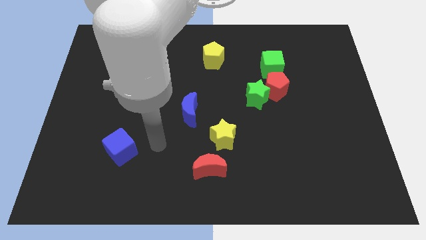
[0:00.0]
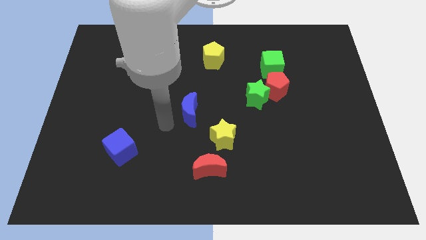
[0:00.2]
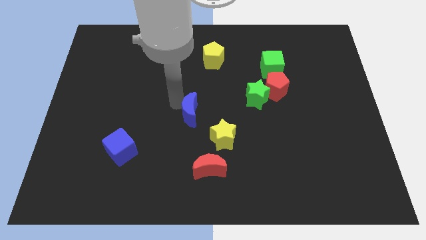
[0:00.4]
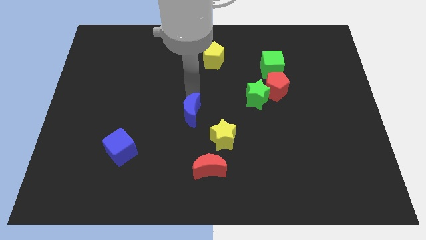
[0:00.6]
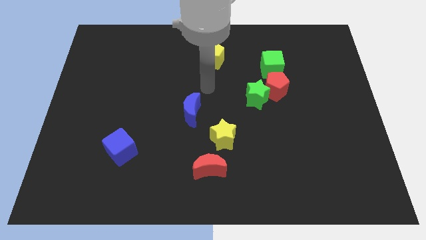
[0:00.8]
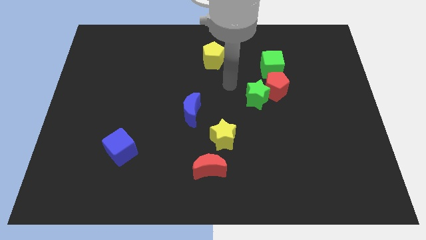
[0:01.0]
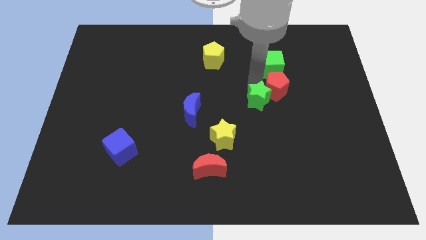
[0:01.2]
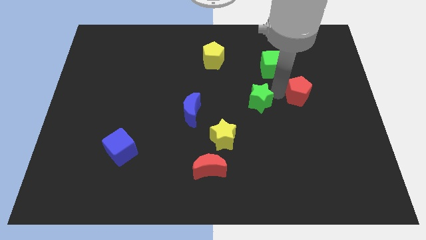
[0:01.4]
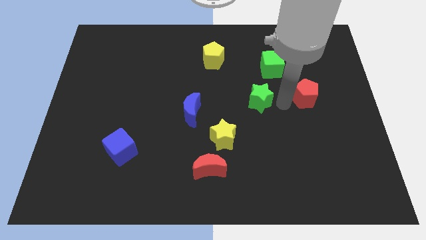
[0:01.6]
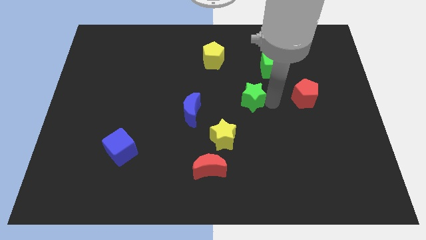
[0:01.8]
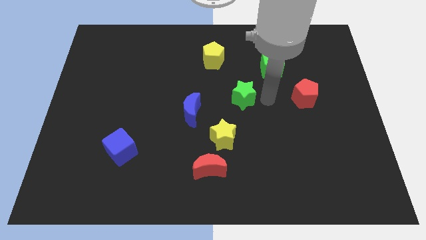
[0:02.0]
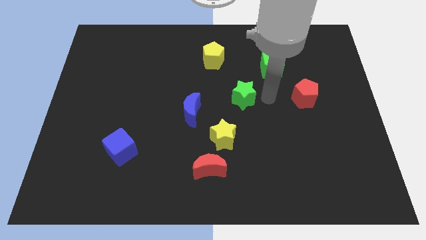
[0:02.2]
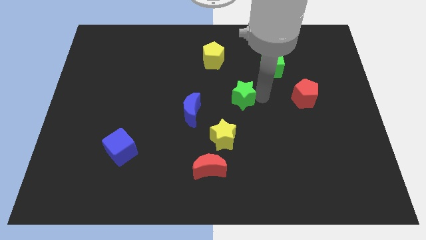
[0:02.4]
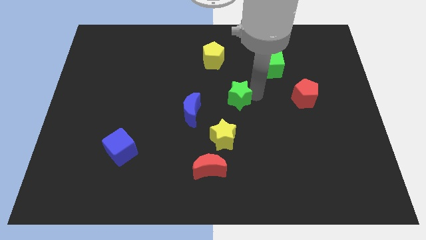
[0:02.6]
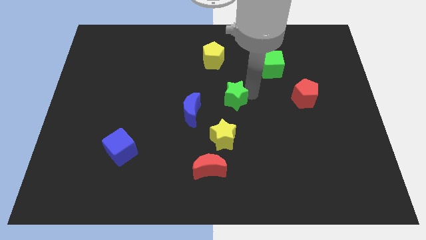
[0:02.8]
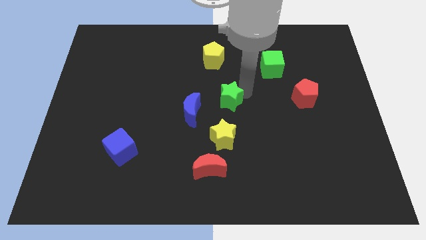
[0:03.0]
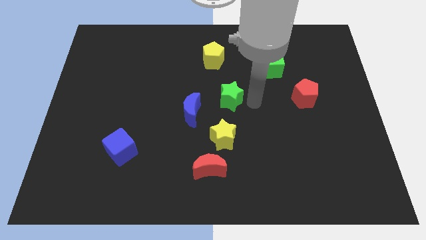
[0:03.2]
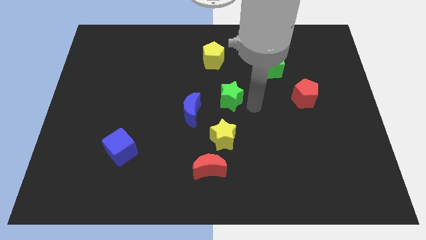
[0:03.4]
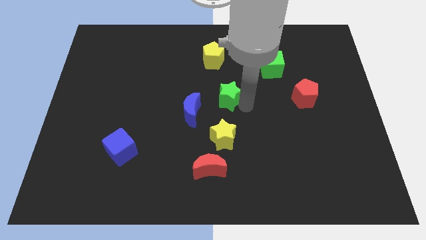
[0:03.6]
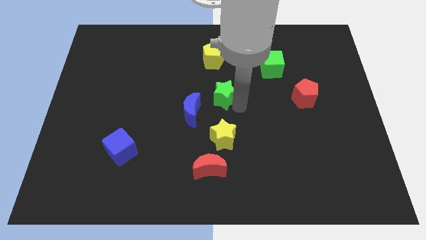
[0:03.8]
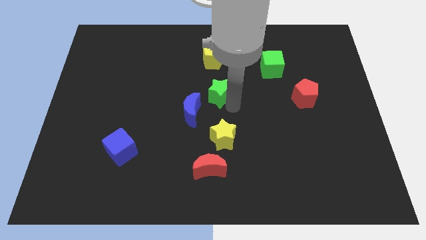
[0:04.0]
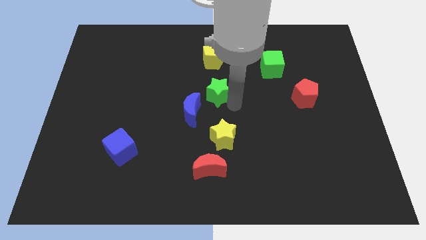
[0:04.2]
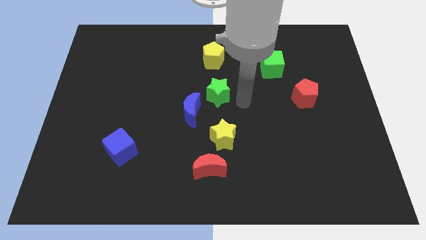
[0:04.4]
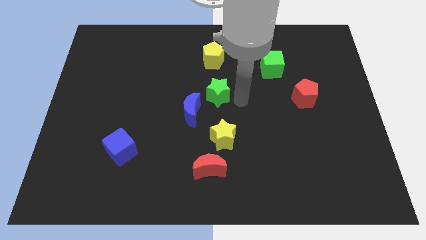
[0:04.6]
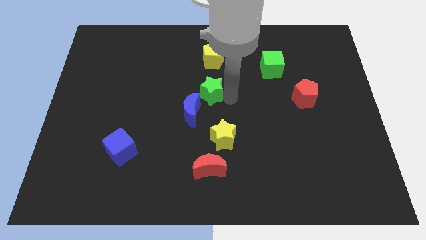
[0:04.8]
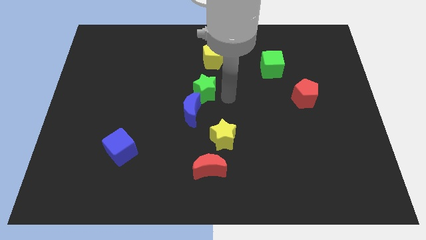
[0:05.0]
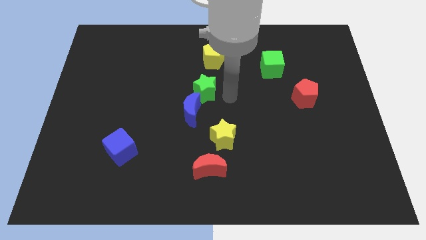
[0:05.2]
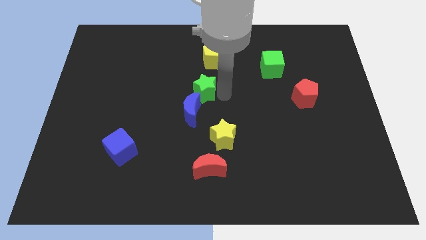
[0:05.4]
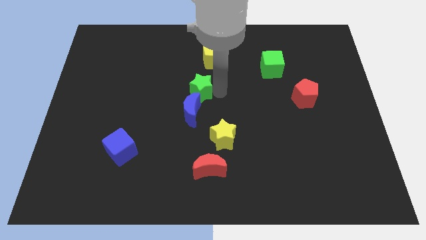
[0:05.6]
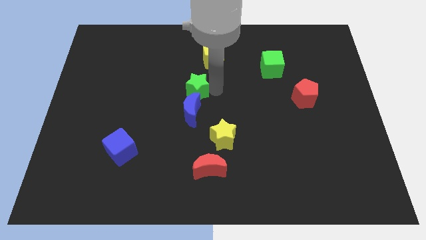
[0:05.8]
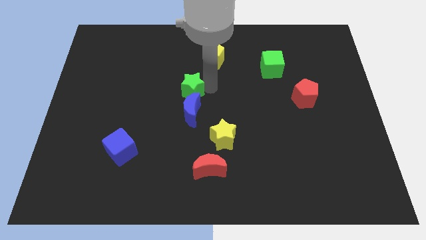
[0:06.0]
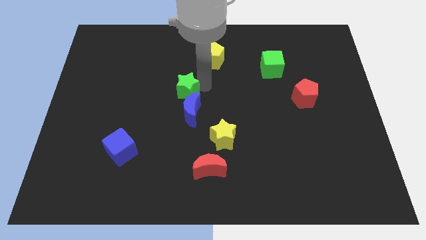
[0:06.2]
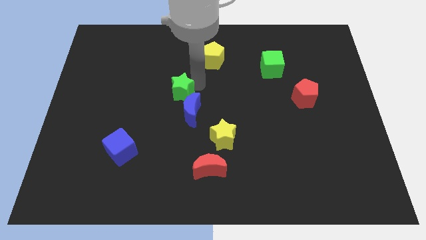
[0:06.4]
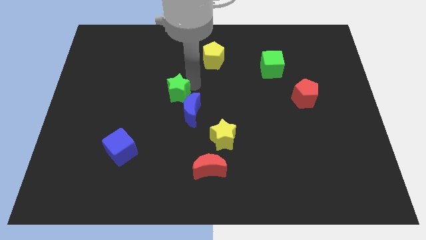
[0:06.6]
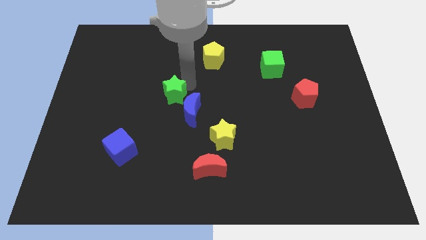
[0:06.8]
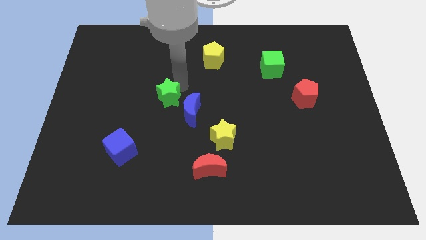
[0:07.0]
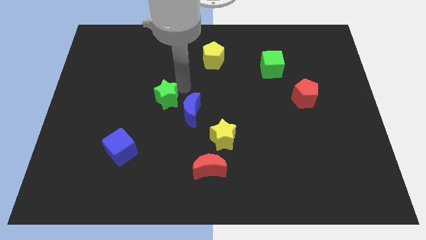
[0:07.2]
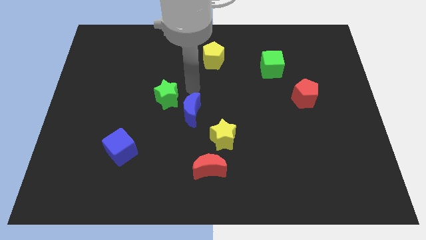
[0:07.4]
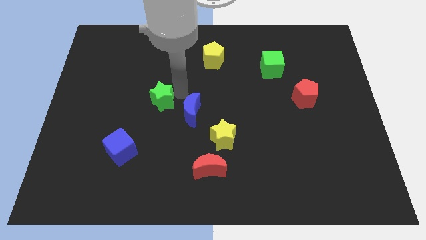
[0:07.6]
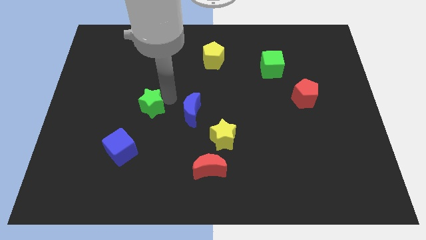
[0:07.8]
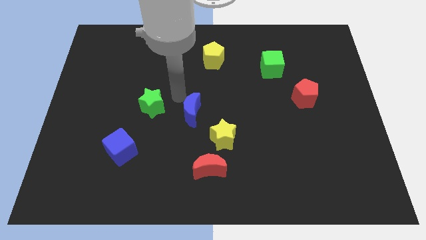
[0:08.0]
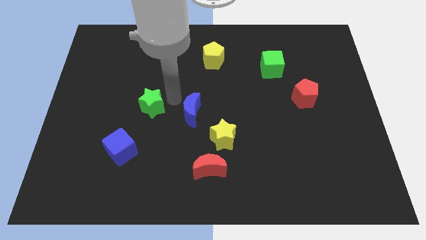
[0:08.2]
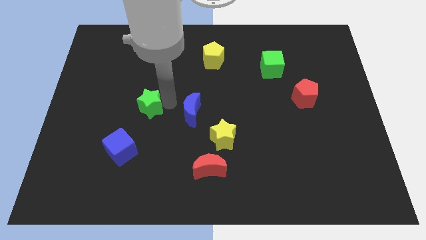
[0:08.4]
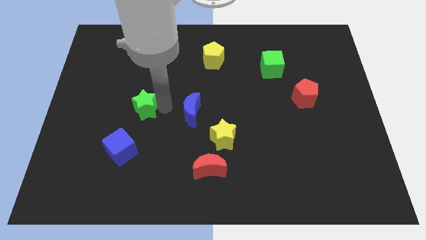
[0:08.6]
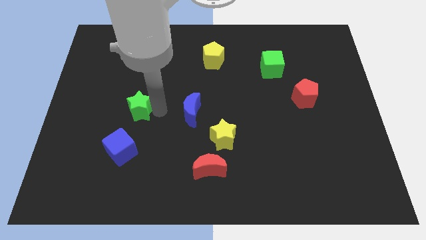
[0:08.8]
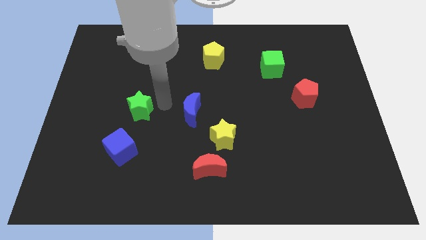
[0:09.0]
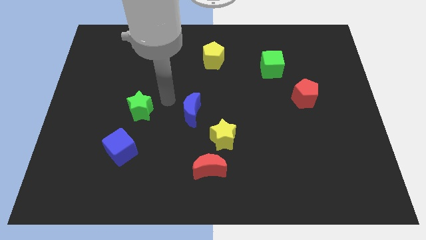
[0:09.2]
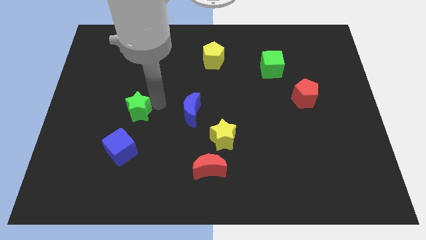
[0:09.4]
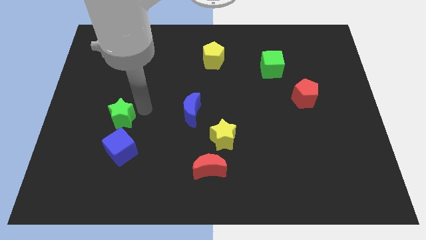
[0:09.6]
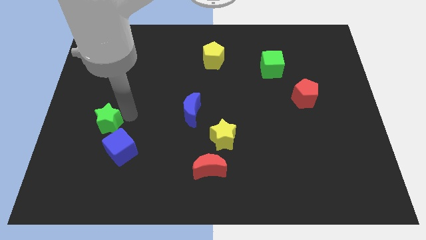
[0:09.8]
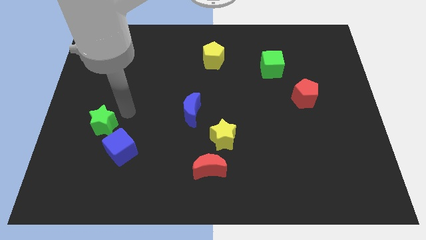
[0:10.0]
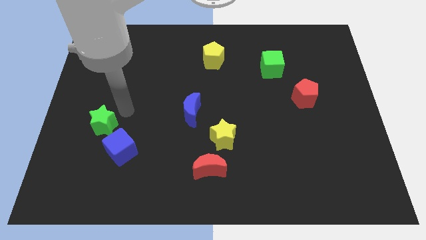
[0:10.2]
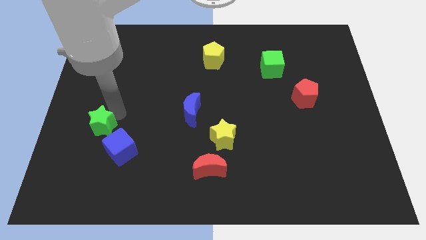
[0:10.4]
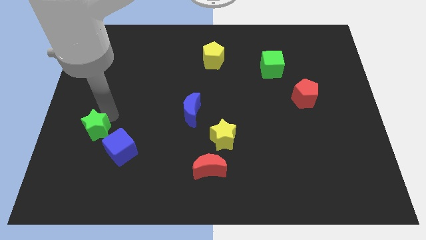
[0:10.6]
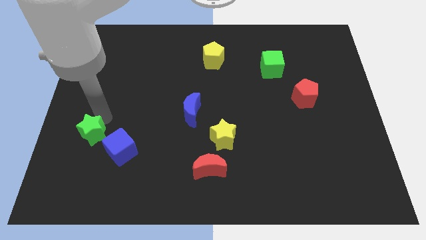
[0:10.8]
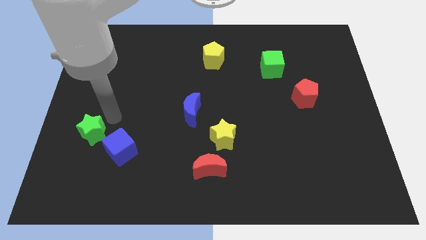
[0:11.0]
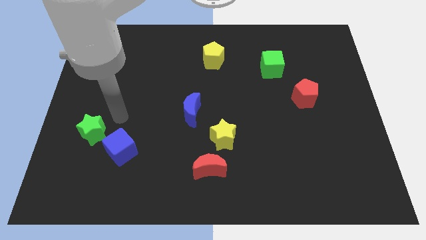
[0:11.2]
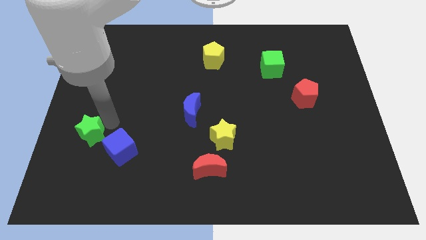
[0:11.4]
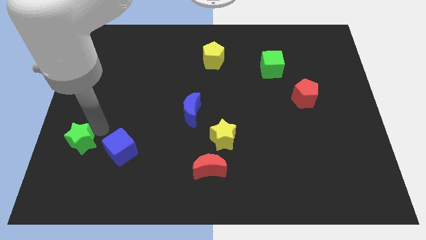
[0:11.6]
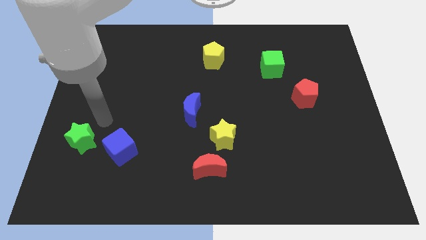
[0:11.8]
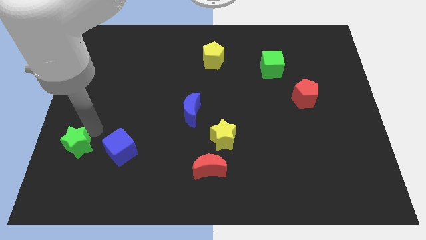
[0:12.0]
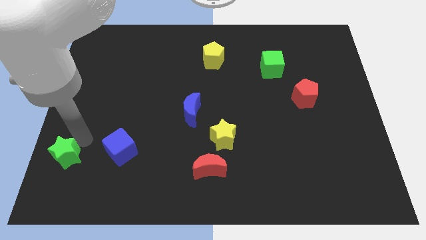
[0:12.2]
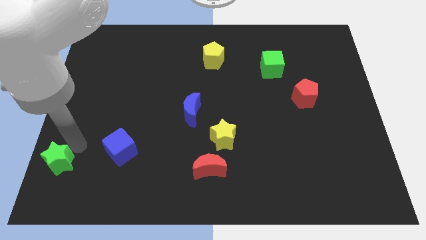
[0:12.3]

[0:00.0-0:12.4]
push the green star to the bottom left of the board
